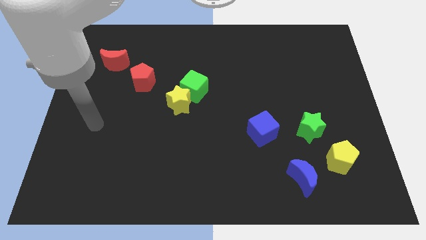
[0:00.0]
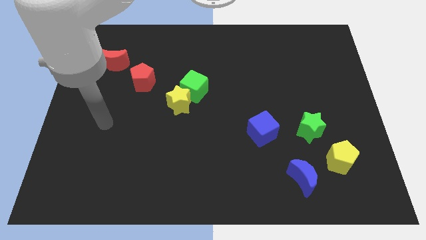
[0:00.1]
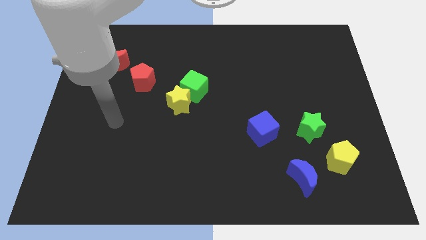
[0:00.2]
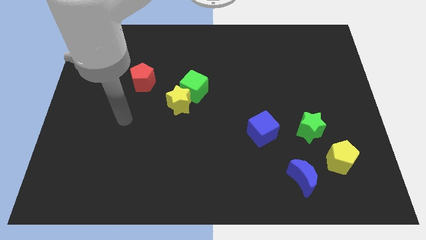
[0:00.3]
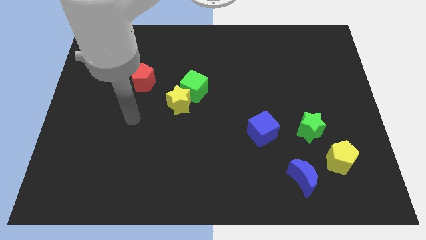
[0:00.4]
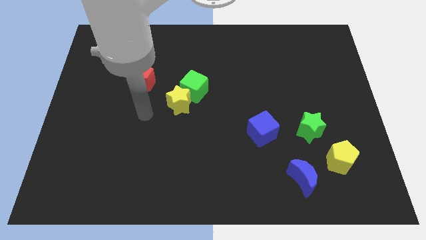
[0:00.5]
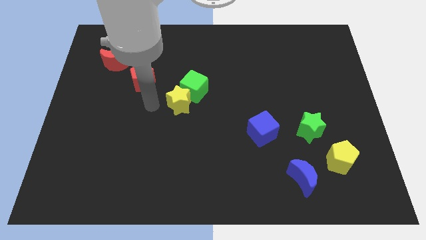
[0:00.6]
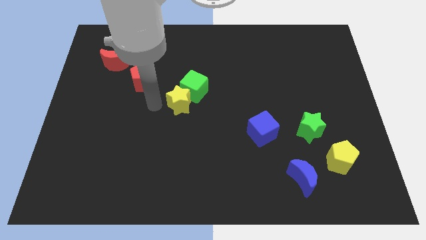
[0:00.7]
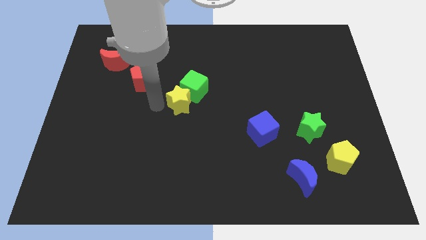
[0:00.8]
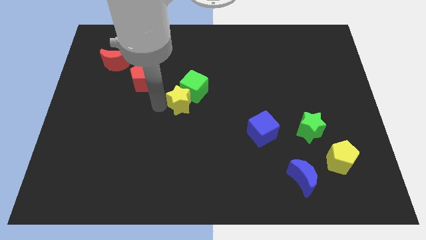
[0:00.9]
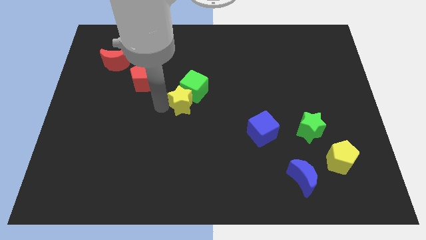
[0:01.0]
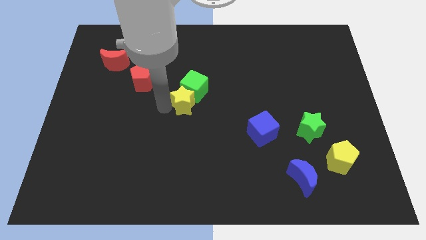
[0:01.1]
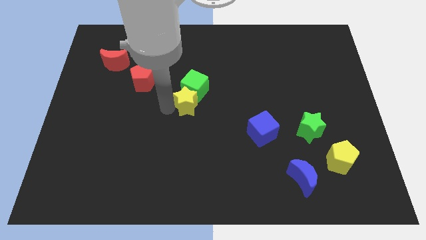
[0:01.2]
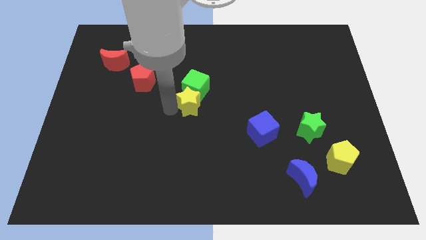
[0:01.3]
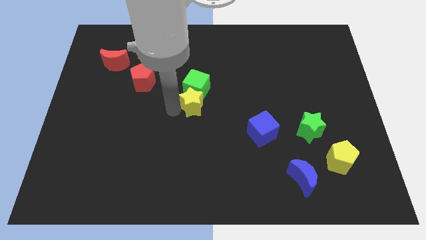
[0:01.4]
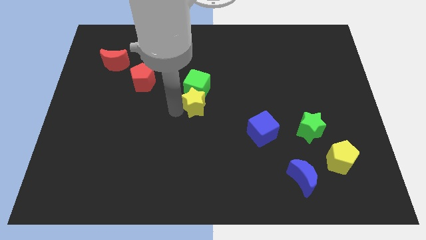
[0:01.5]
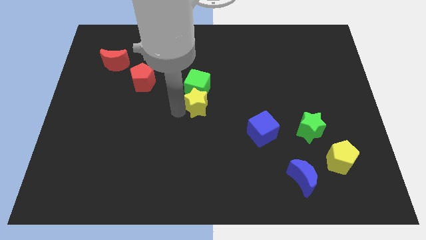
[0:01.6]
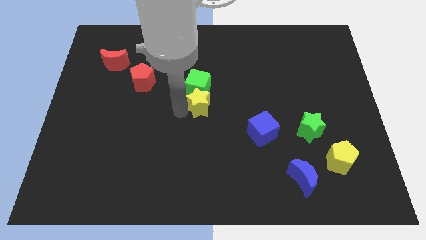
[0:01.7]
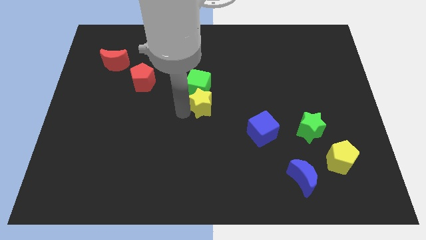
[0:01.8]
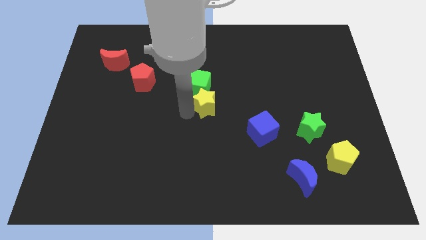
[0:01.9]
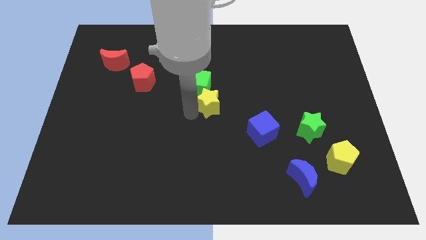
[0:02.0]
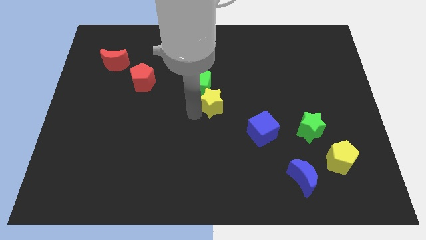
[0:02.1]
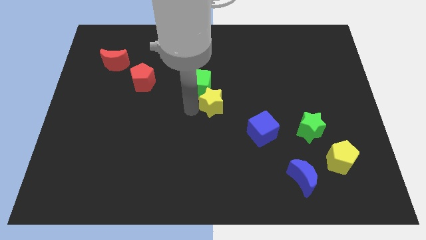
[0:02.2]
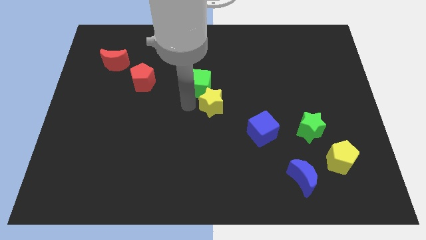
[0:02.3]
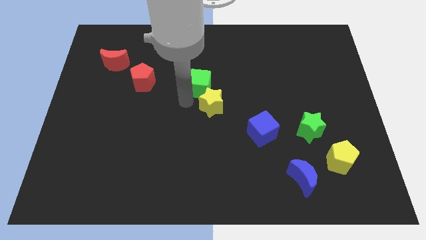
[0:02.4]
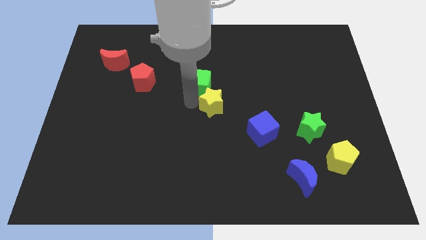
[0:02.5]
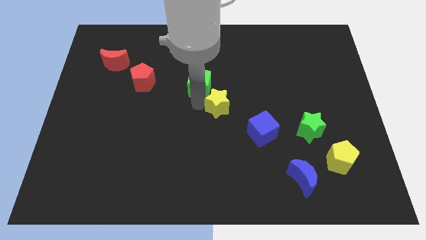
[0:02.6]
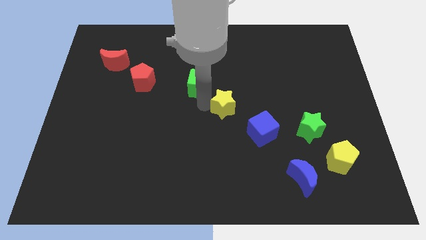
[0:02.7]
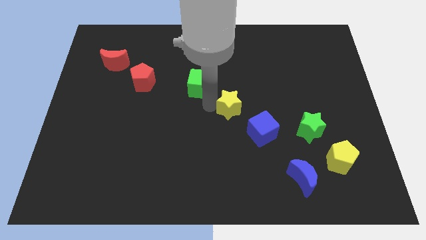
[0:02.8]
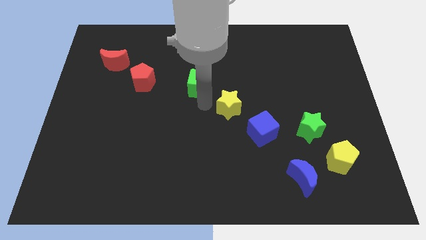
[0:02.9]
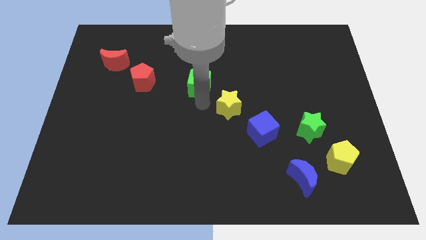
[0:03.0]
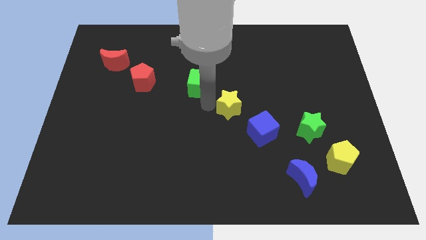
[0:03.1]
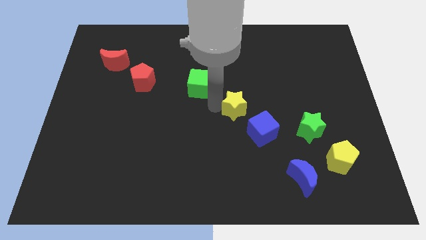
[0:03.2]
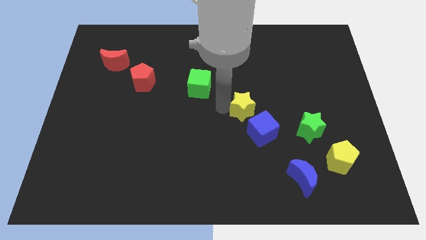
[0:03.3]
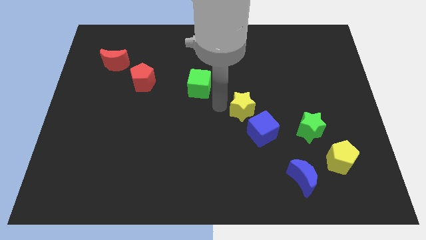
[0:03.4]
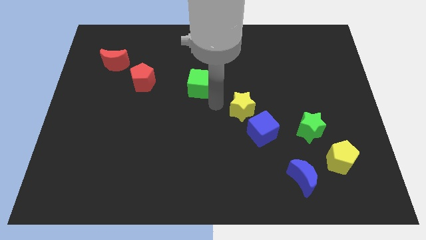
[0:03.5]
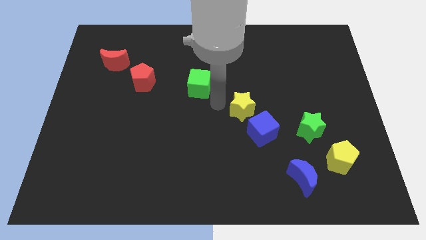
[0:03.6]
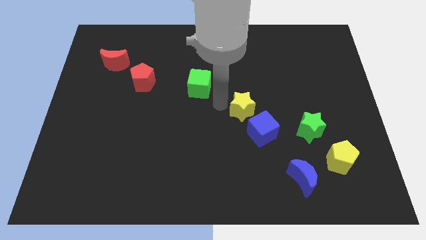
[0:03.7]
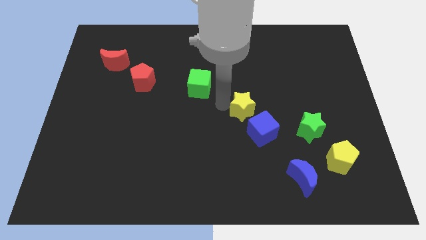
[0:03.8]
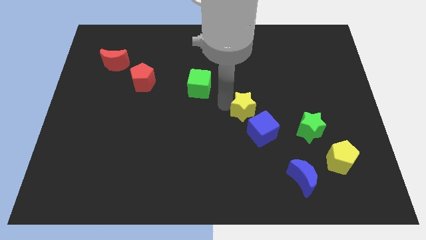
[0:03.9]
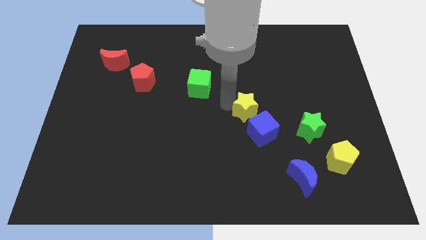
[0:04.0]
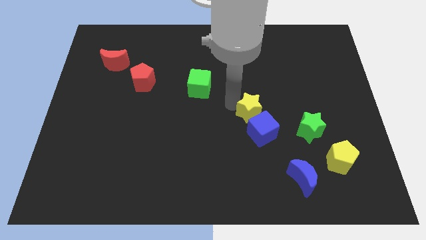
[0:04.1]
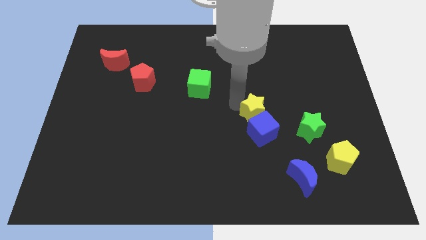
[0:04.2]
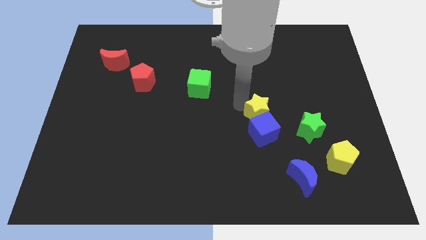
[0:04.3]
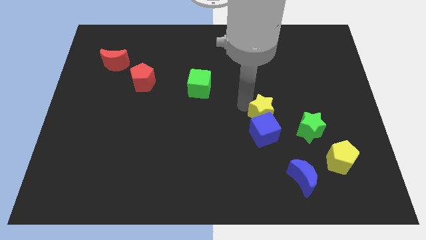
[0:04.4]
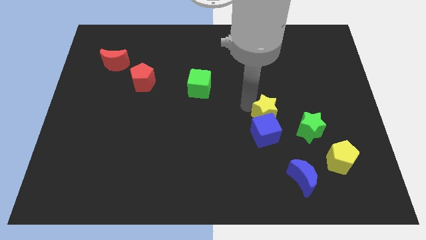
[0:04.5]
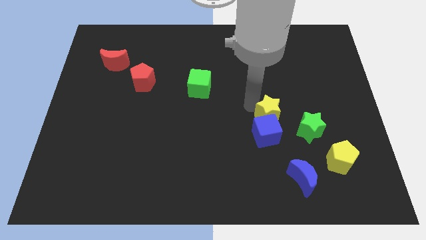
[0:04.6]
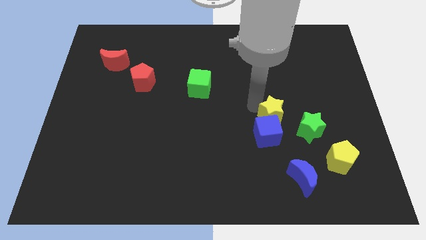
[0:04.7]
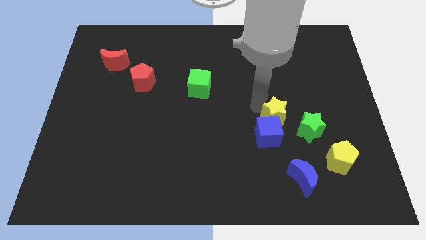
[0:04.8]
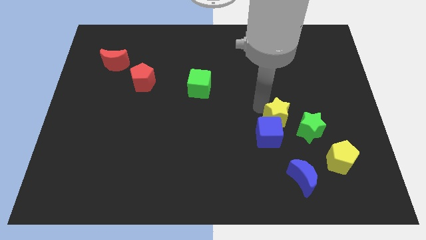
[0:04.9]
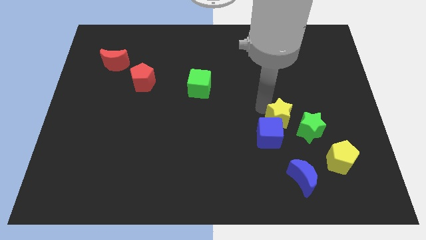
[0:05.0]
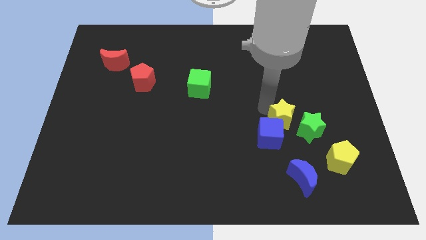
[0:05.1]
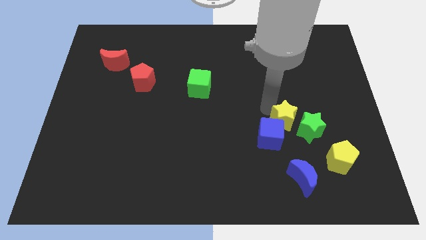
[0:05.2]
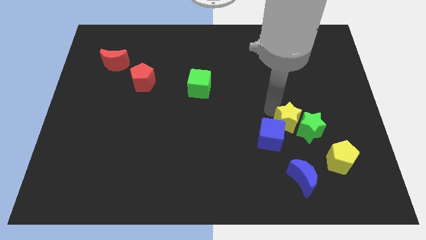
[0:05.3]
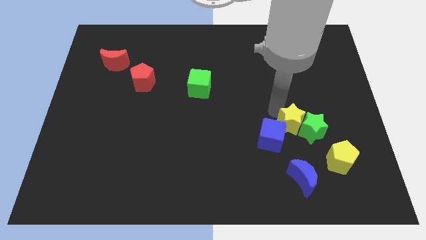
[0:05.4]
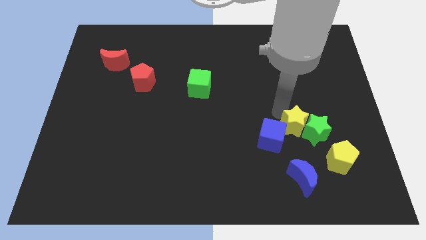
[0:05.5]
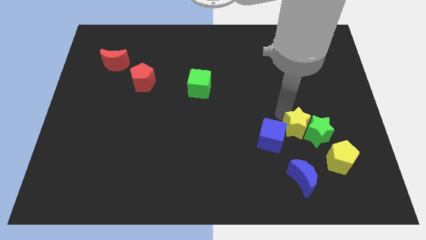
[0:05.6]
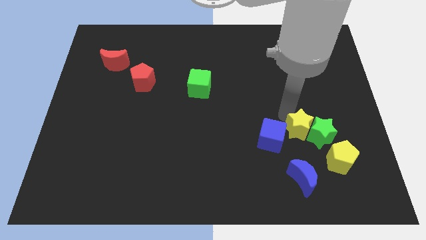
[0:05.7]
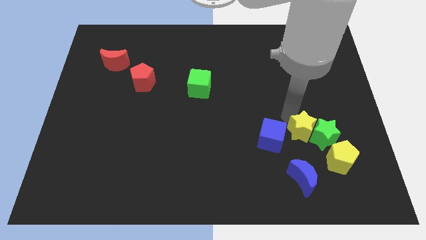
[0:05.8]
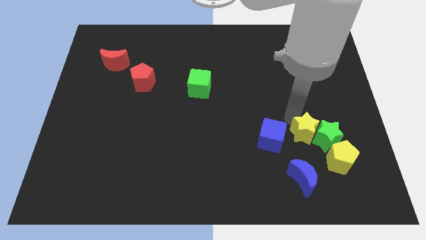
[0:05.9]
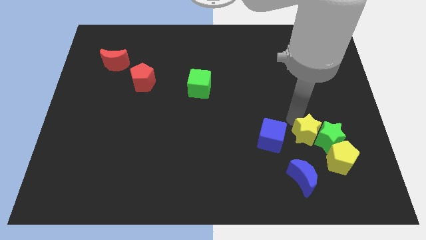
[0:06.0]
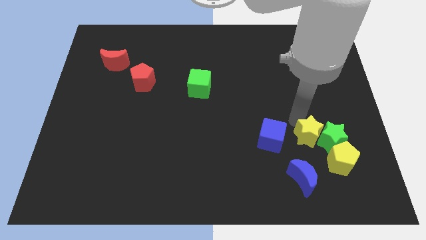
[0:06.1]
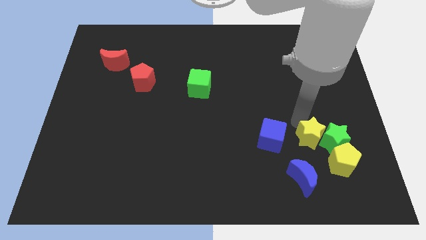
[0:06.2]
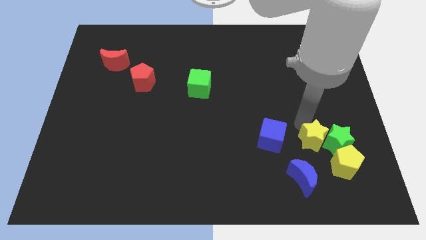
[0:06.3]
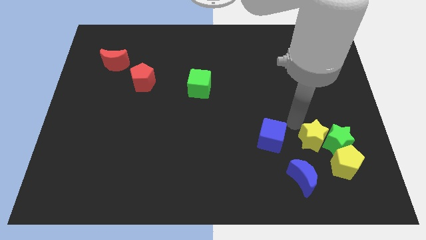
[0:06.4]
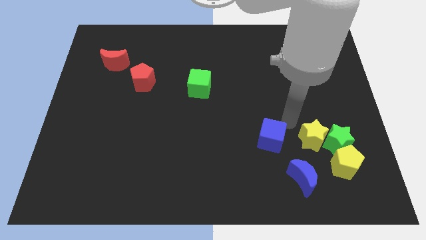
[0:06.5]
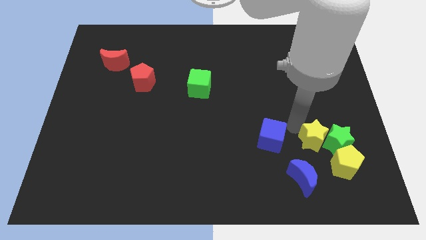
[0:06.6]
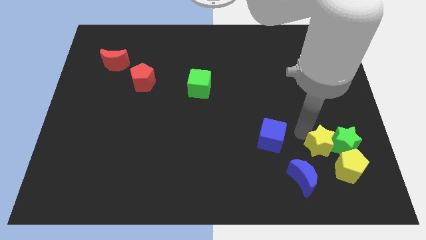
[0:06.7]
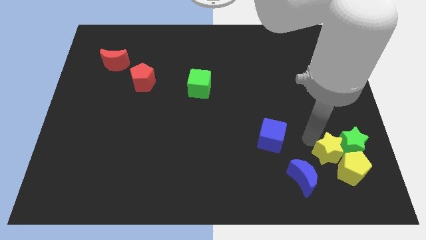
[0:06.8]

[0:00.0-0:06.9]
put the yellow star to the yellow pentagon
